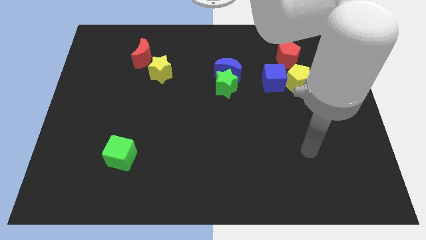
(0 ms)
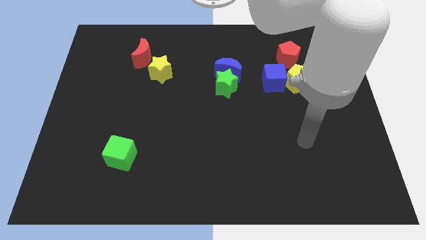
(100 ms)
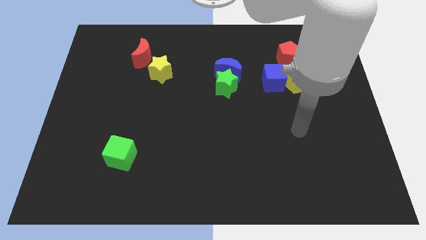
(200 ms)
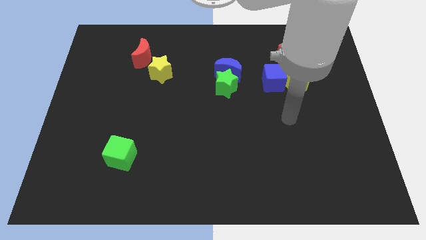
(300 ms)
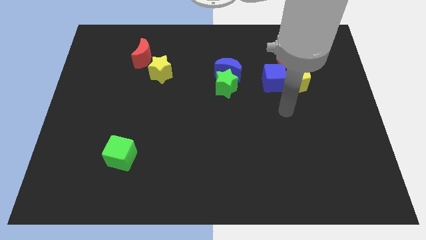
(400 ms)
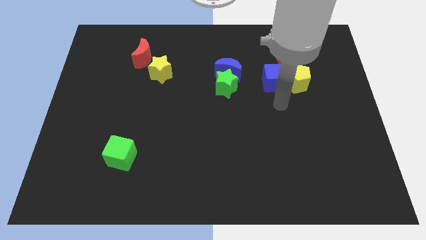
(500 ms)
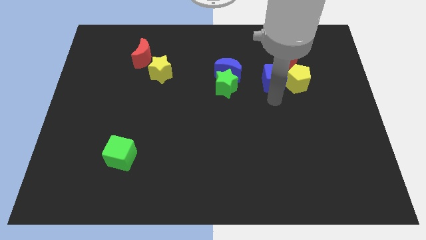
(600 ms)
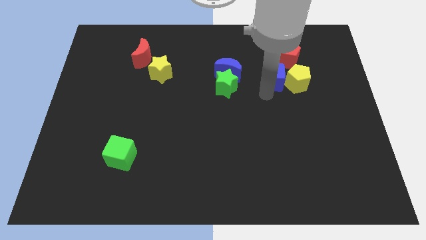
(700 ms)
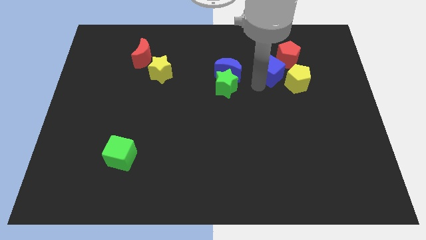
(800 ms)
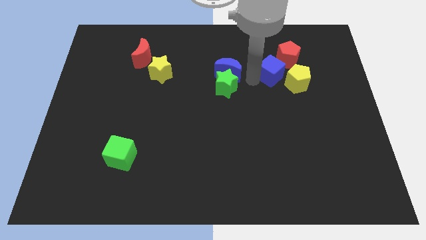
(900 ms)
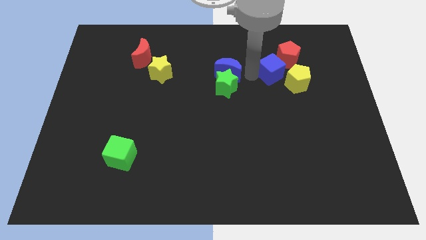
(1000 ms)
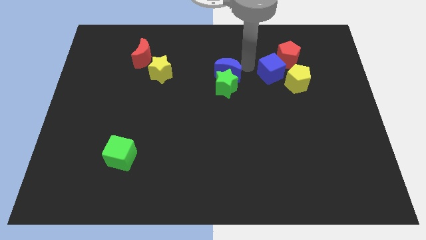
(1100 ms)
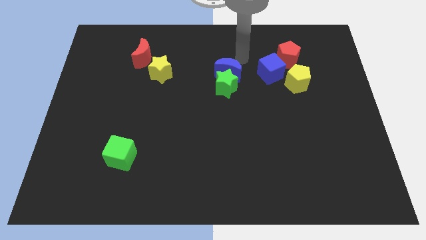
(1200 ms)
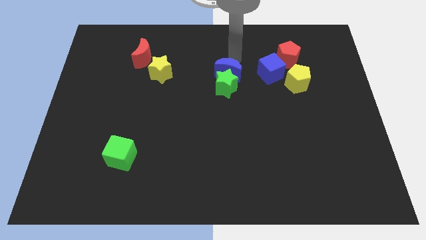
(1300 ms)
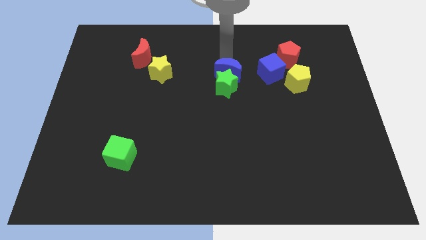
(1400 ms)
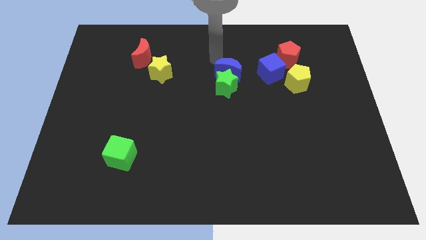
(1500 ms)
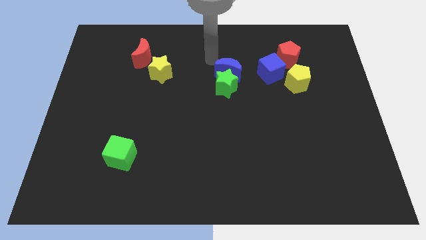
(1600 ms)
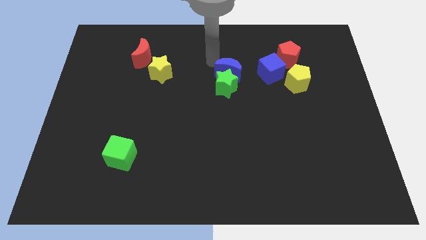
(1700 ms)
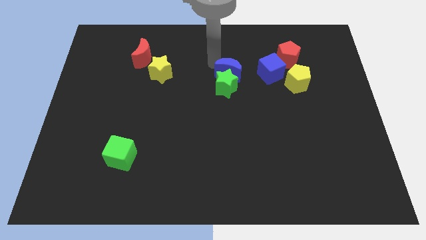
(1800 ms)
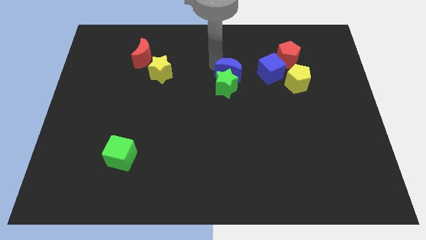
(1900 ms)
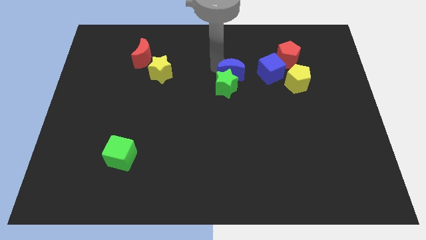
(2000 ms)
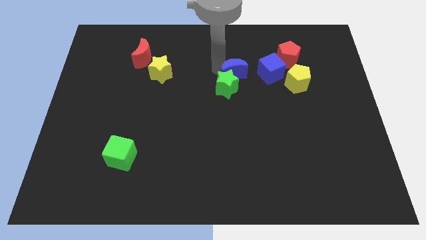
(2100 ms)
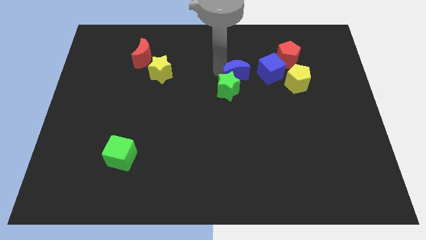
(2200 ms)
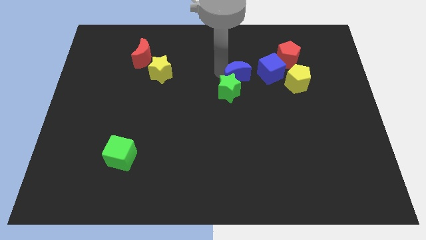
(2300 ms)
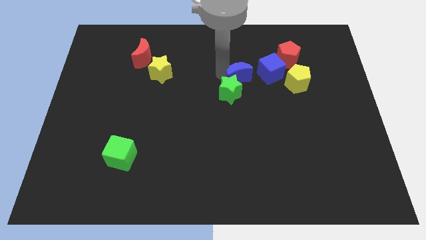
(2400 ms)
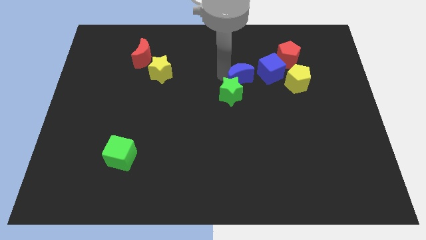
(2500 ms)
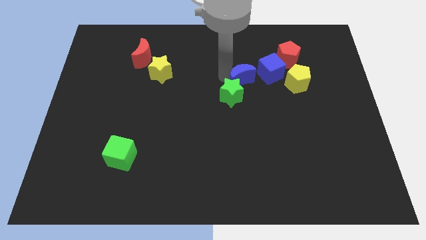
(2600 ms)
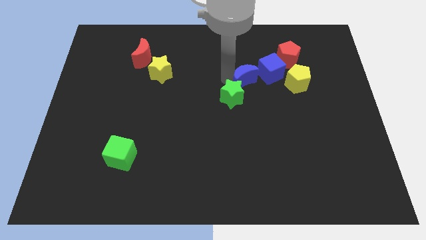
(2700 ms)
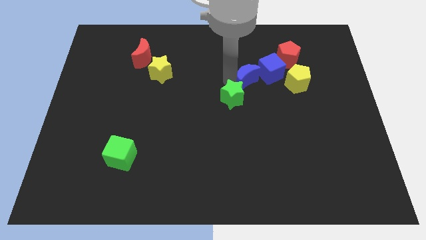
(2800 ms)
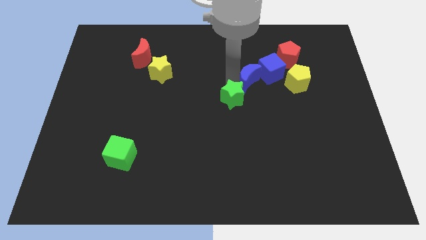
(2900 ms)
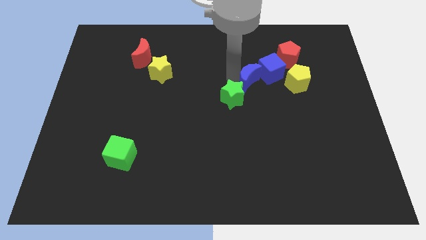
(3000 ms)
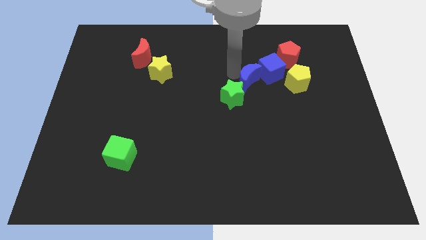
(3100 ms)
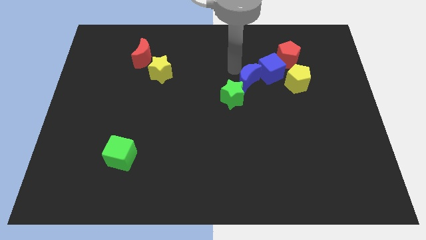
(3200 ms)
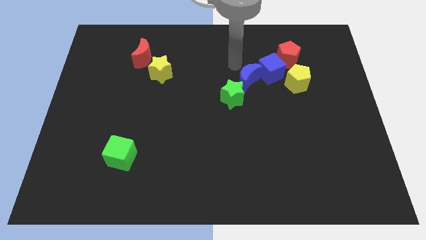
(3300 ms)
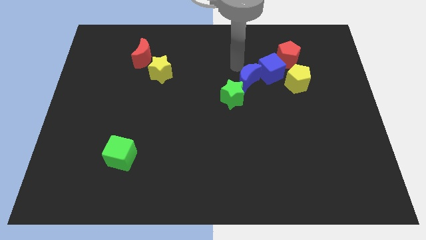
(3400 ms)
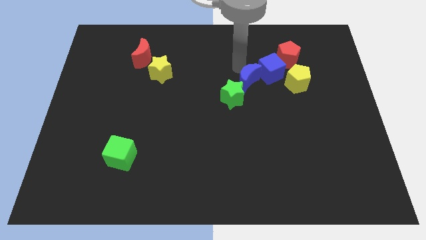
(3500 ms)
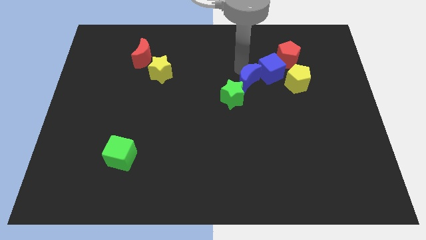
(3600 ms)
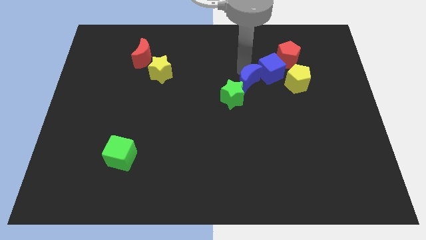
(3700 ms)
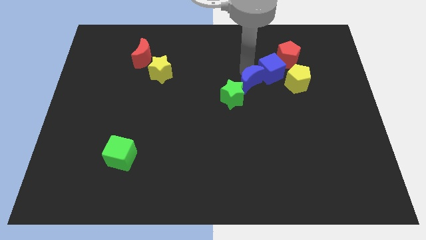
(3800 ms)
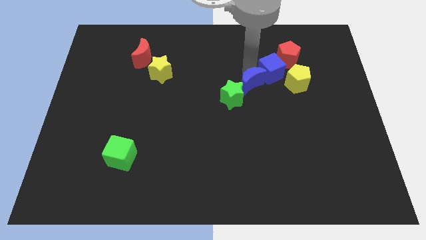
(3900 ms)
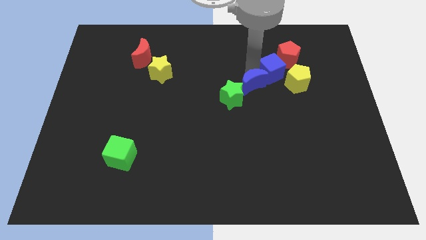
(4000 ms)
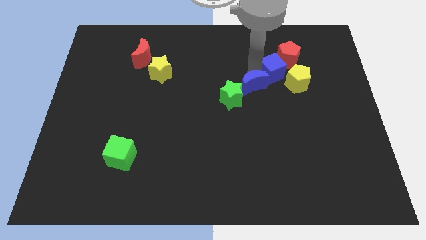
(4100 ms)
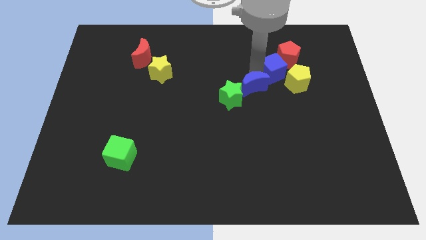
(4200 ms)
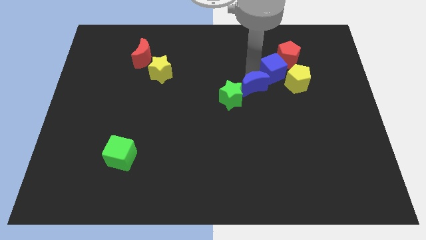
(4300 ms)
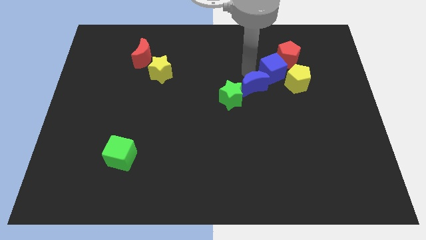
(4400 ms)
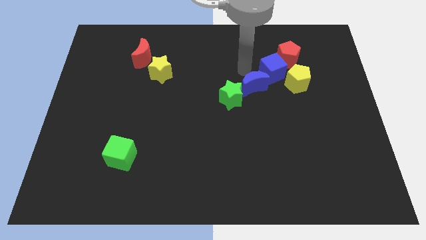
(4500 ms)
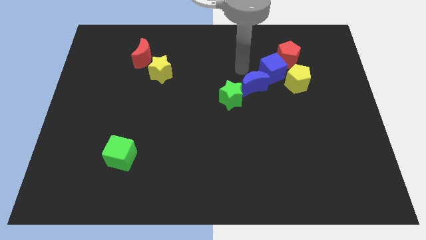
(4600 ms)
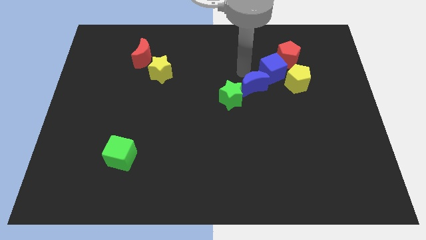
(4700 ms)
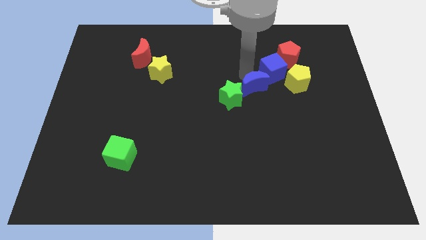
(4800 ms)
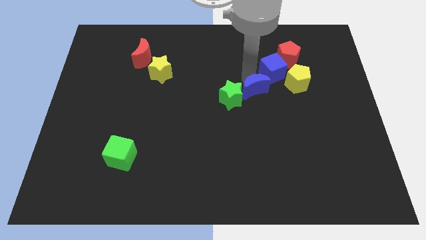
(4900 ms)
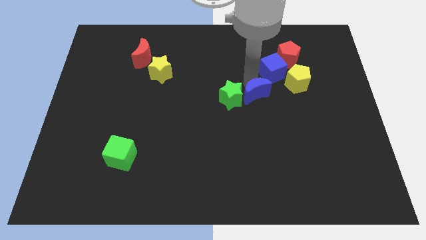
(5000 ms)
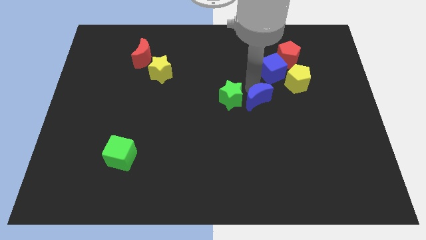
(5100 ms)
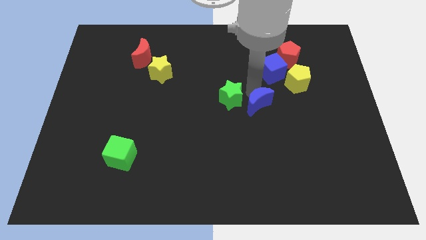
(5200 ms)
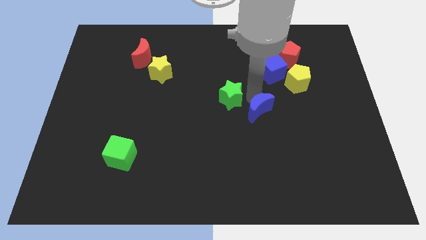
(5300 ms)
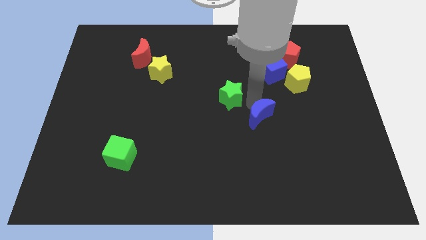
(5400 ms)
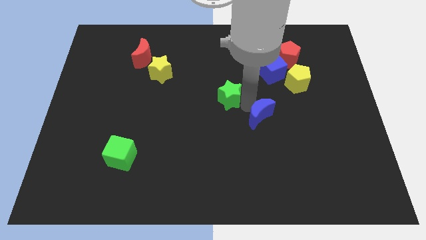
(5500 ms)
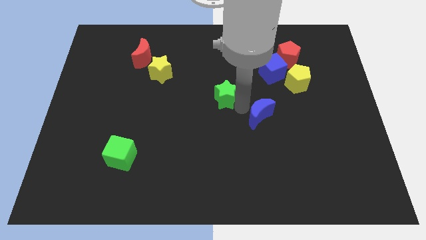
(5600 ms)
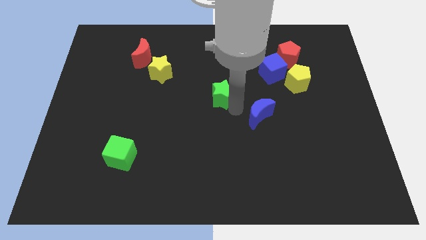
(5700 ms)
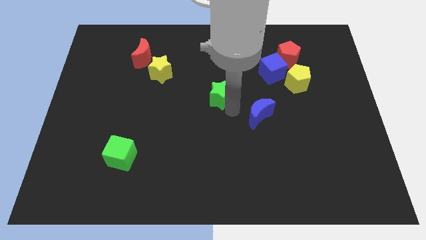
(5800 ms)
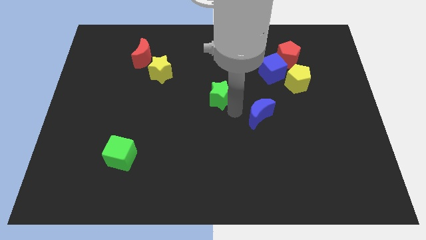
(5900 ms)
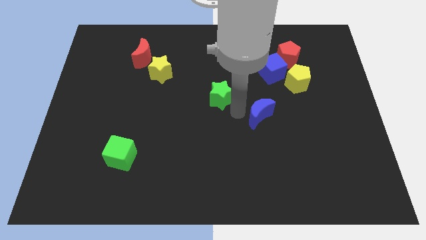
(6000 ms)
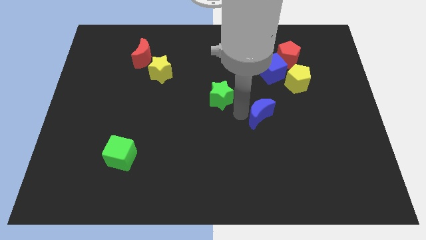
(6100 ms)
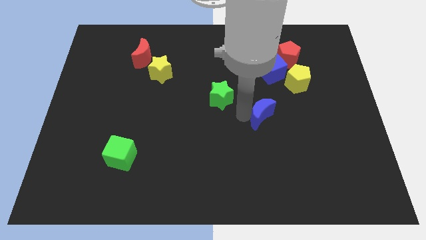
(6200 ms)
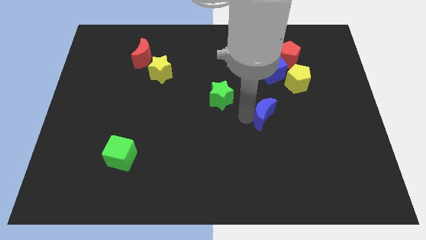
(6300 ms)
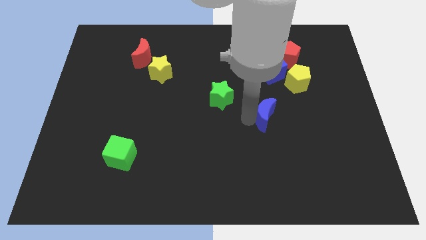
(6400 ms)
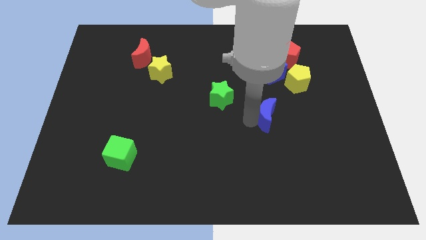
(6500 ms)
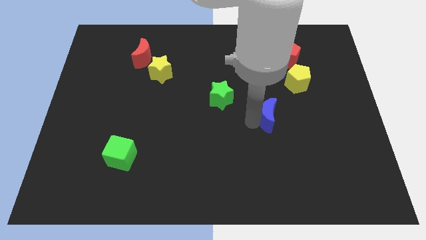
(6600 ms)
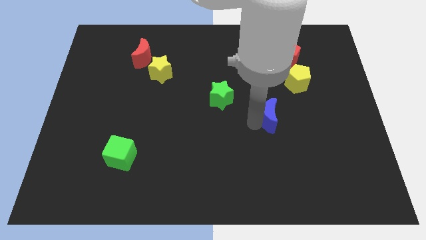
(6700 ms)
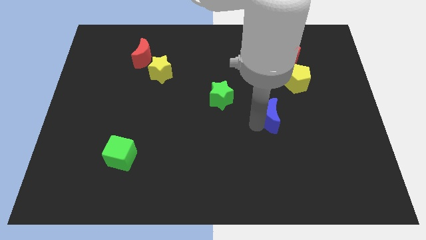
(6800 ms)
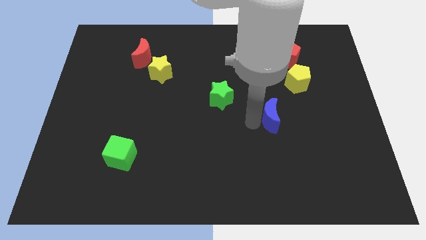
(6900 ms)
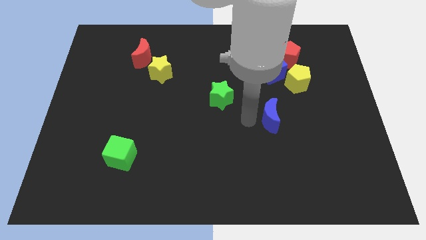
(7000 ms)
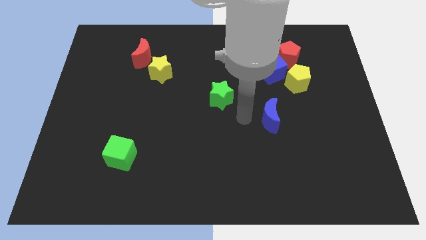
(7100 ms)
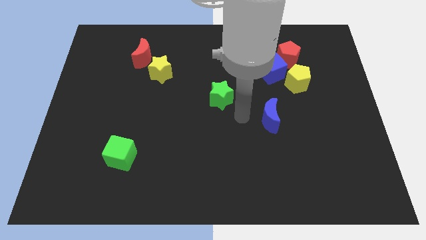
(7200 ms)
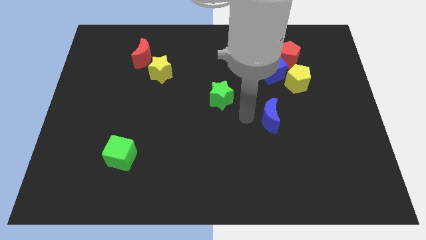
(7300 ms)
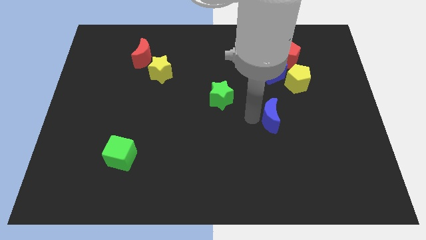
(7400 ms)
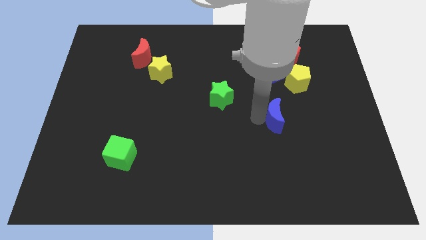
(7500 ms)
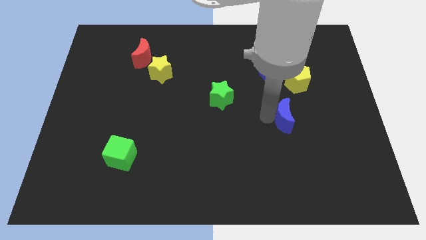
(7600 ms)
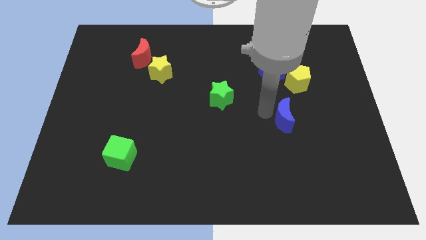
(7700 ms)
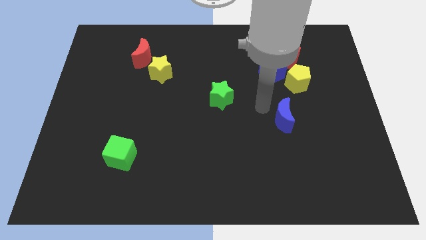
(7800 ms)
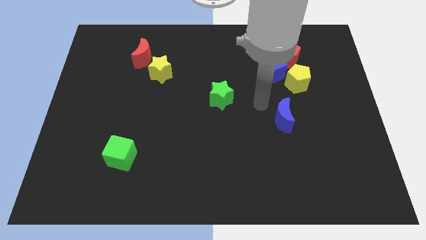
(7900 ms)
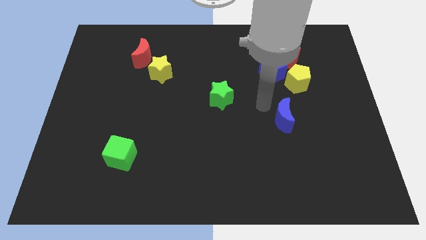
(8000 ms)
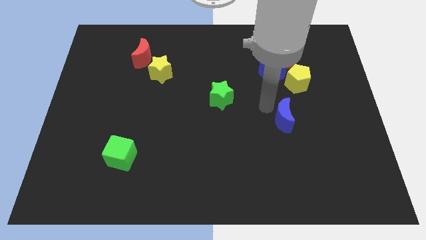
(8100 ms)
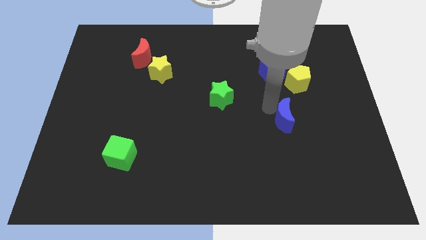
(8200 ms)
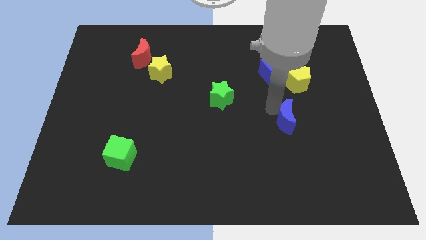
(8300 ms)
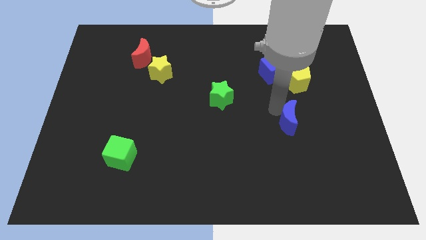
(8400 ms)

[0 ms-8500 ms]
move the blue moon downwards and then to the right
